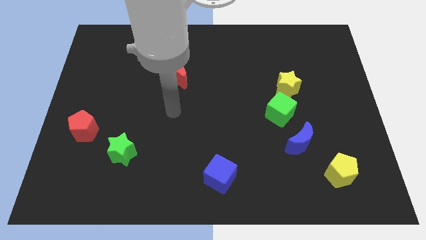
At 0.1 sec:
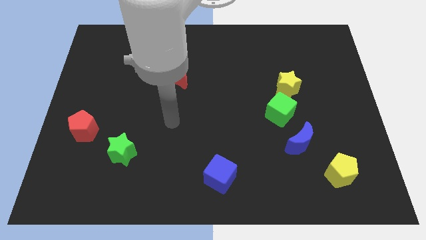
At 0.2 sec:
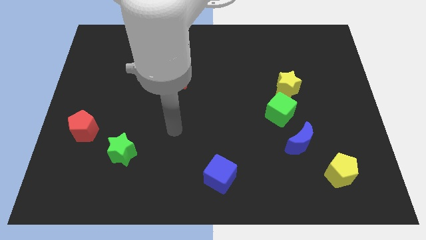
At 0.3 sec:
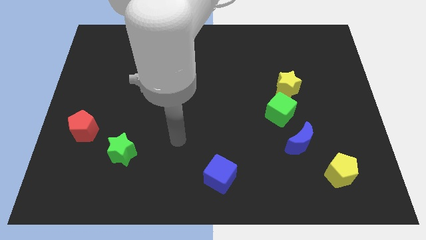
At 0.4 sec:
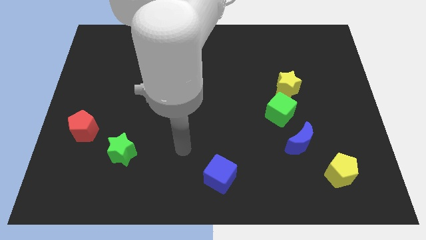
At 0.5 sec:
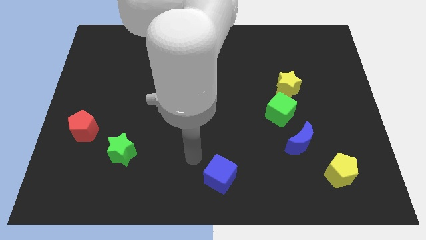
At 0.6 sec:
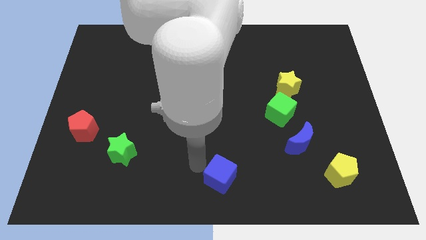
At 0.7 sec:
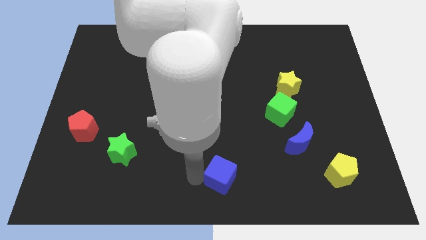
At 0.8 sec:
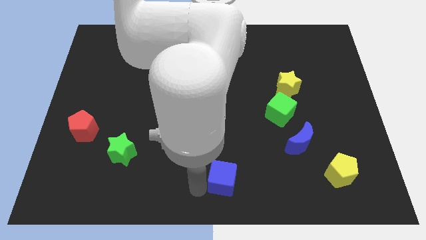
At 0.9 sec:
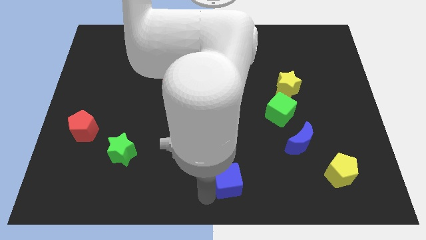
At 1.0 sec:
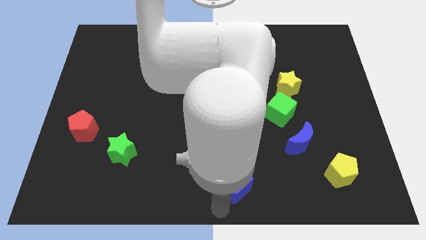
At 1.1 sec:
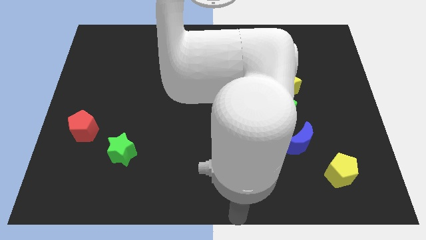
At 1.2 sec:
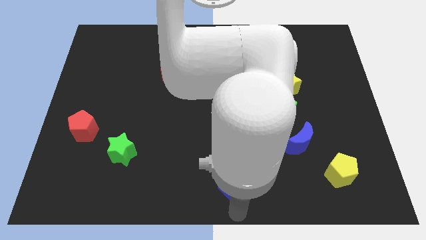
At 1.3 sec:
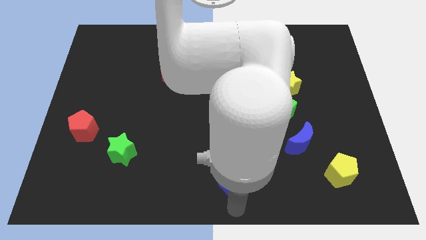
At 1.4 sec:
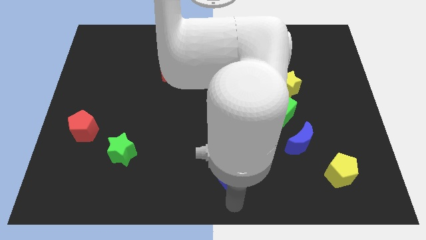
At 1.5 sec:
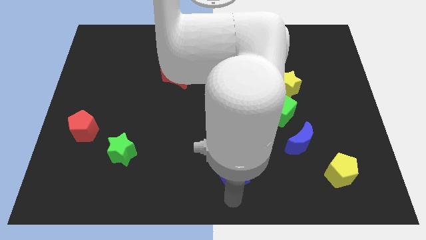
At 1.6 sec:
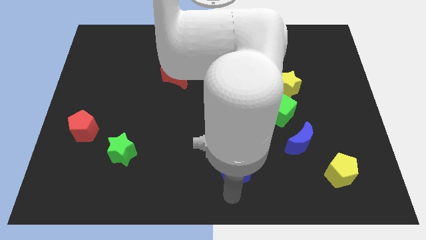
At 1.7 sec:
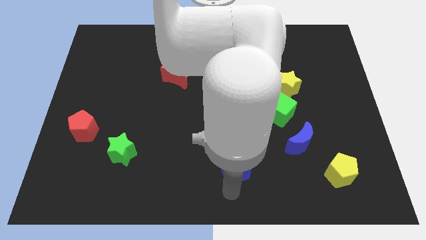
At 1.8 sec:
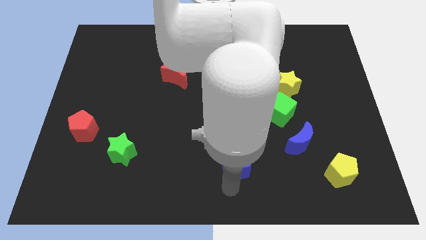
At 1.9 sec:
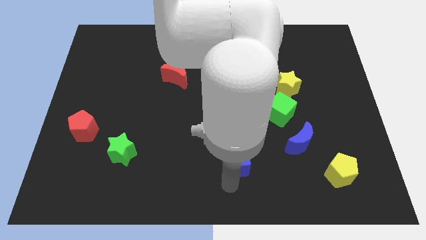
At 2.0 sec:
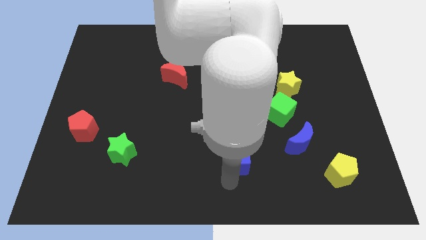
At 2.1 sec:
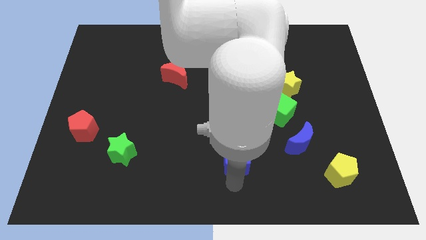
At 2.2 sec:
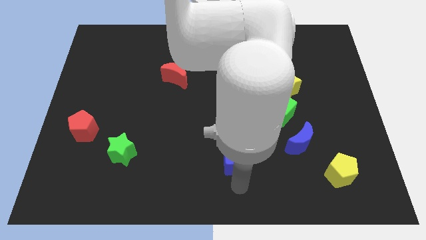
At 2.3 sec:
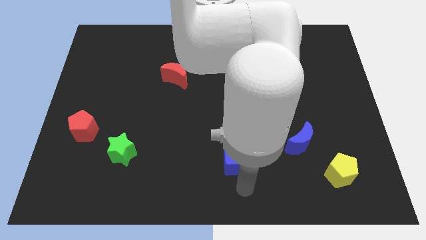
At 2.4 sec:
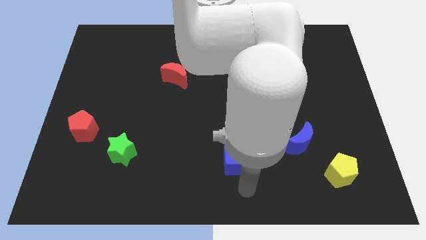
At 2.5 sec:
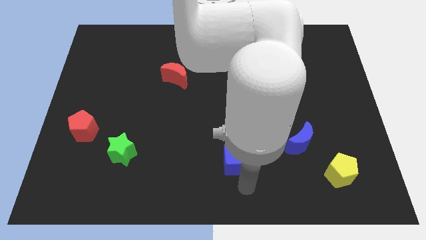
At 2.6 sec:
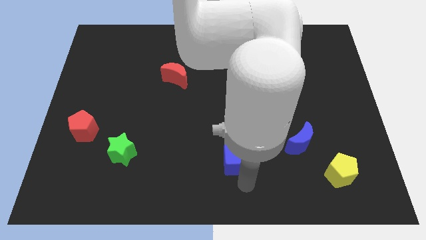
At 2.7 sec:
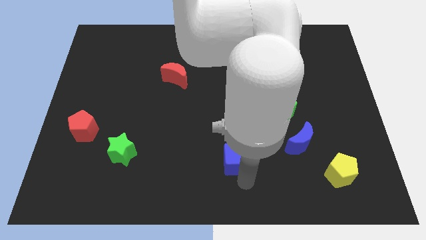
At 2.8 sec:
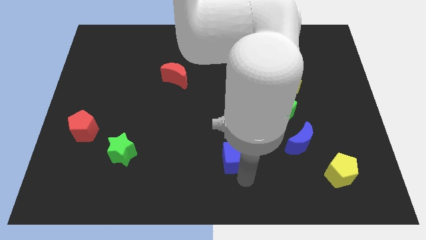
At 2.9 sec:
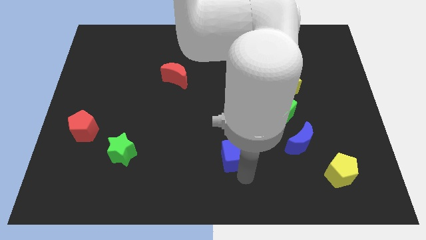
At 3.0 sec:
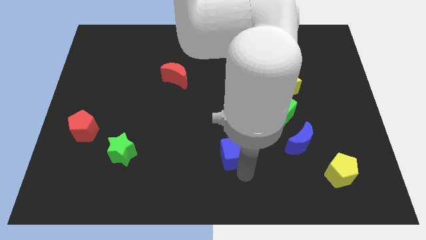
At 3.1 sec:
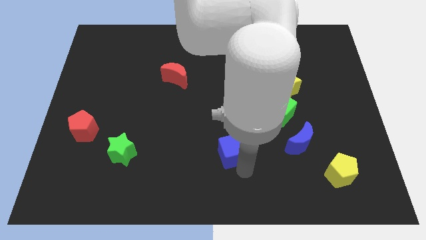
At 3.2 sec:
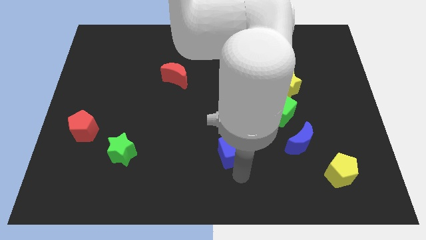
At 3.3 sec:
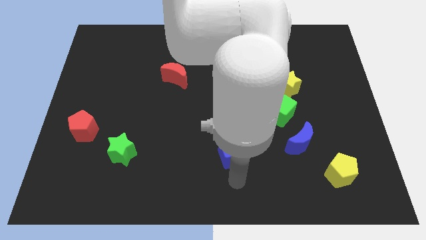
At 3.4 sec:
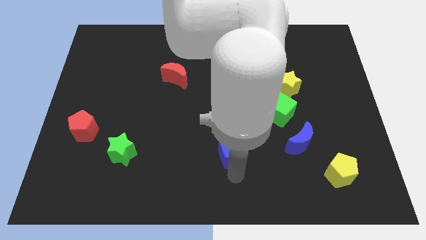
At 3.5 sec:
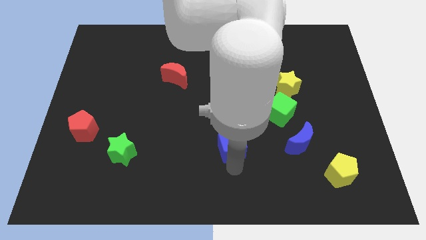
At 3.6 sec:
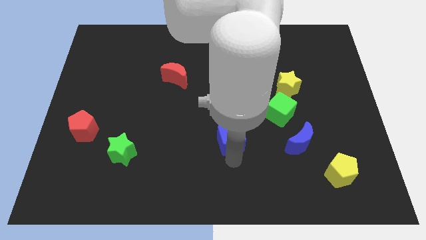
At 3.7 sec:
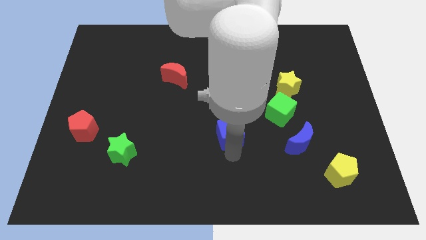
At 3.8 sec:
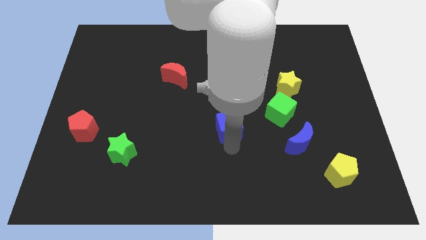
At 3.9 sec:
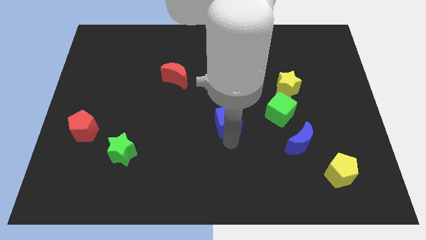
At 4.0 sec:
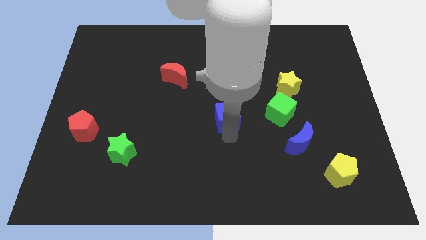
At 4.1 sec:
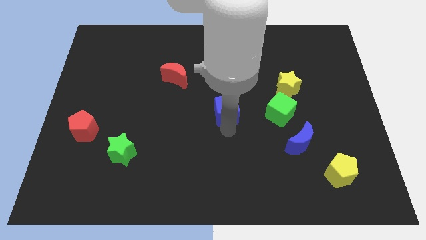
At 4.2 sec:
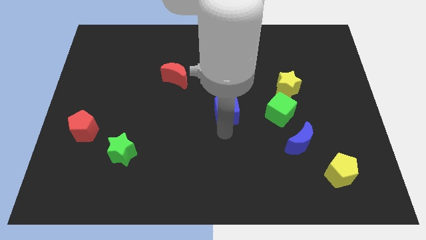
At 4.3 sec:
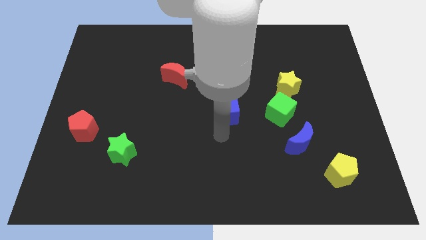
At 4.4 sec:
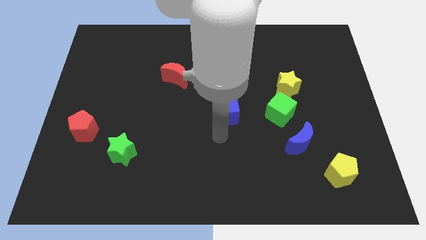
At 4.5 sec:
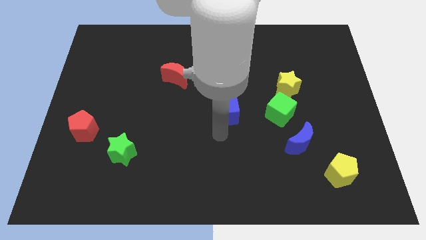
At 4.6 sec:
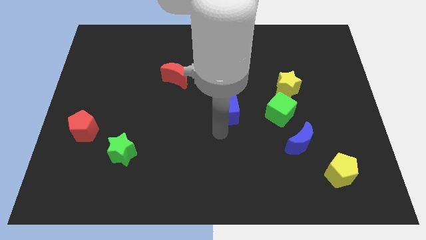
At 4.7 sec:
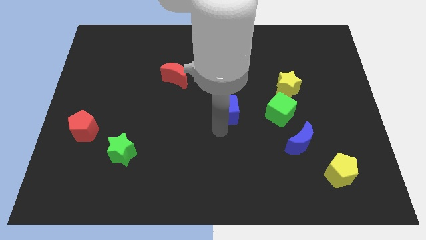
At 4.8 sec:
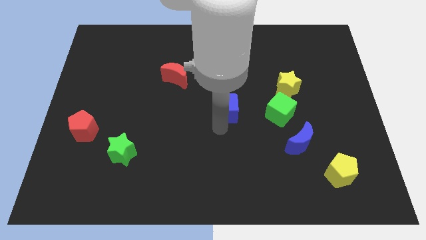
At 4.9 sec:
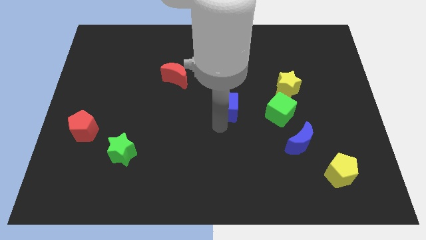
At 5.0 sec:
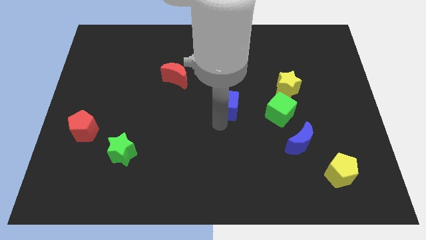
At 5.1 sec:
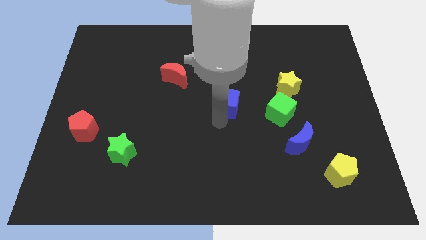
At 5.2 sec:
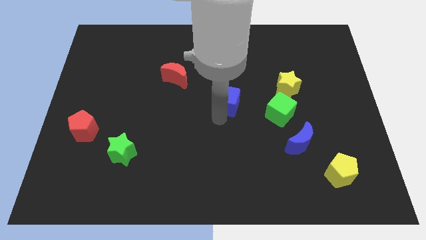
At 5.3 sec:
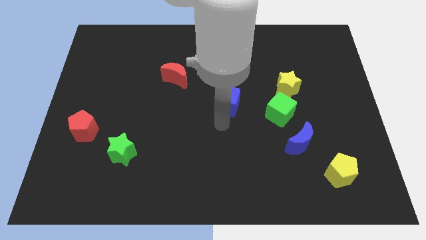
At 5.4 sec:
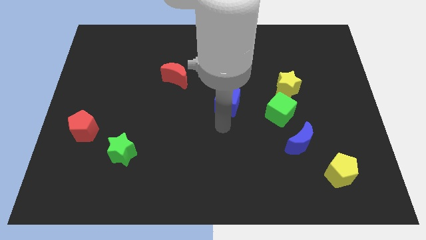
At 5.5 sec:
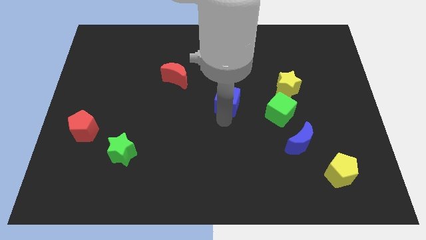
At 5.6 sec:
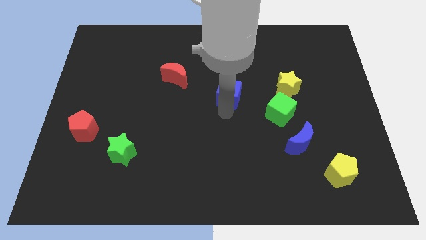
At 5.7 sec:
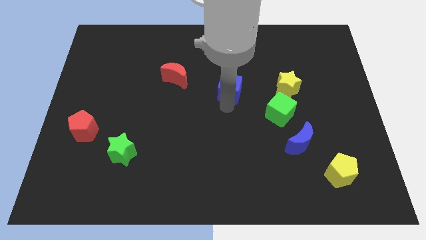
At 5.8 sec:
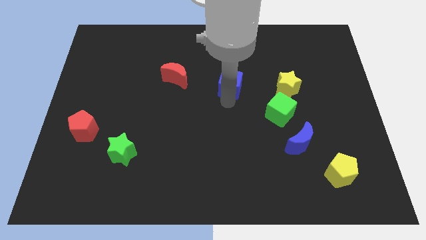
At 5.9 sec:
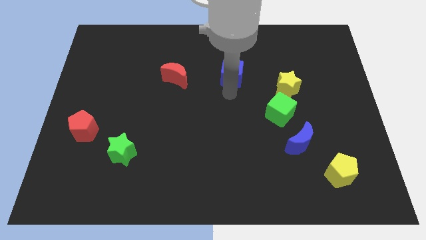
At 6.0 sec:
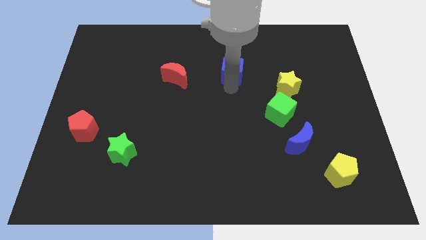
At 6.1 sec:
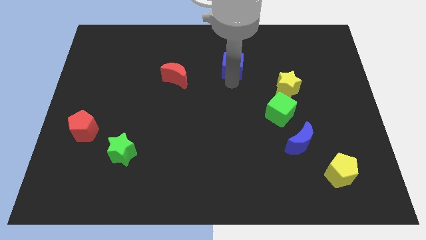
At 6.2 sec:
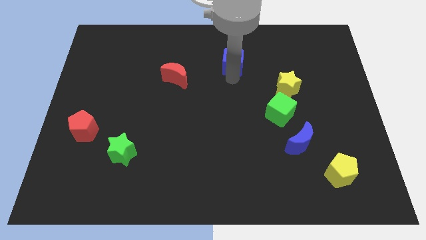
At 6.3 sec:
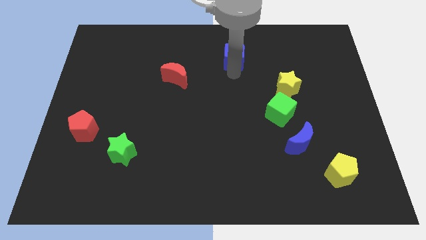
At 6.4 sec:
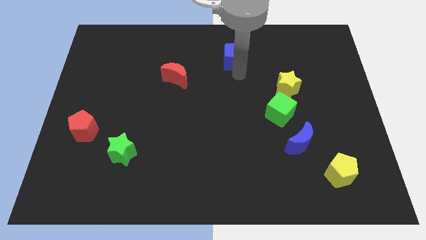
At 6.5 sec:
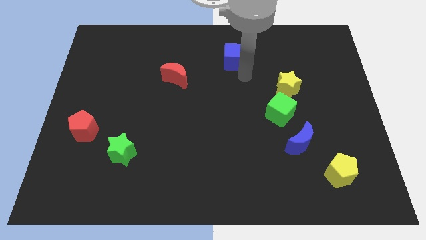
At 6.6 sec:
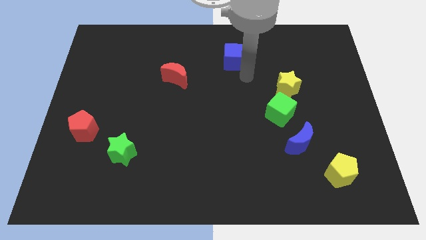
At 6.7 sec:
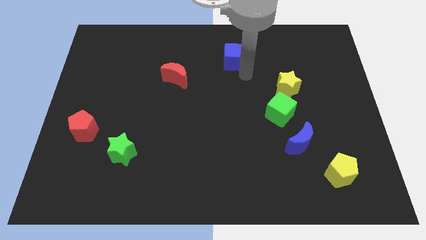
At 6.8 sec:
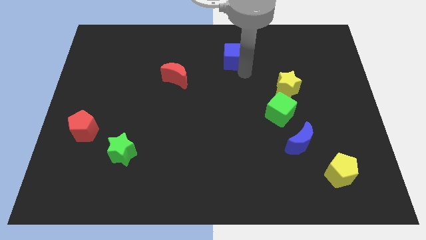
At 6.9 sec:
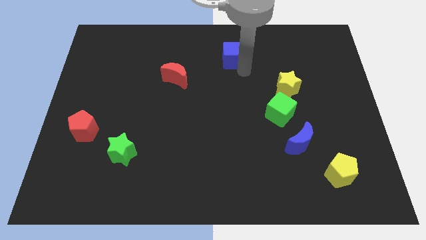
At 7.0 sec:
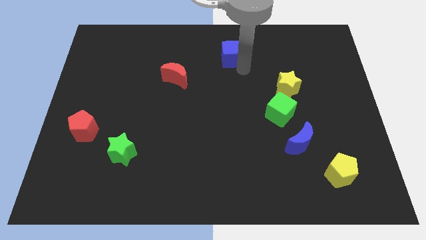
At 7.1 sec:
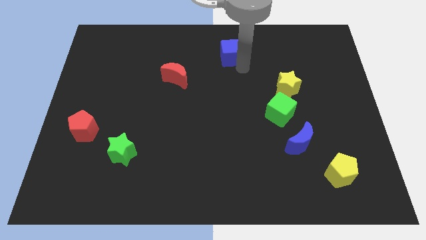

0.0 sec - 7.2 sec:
put the blue cube to the top side
